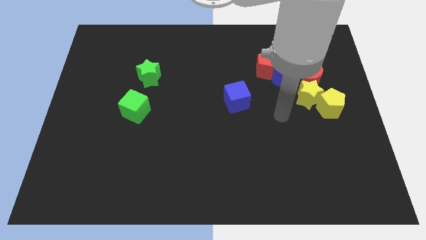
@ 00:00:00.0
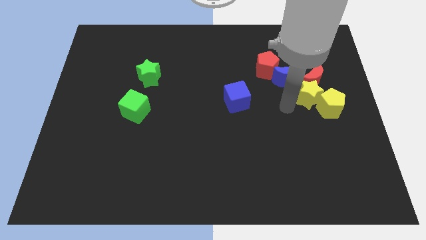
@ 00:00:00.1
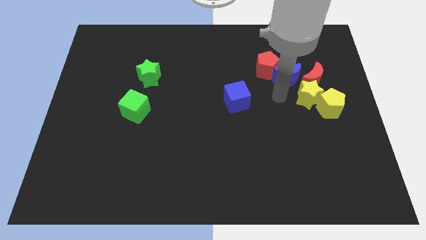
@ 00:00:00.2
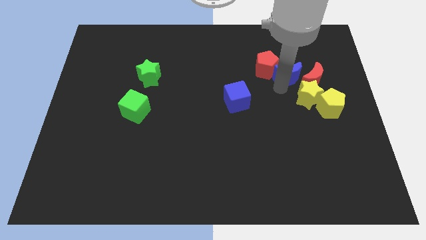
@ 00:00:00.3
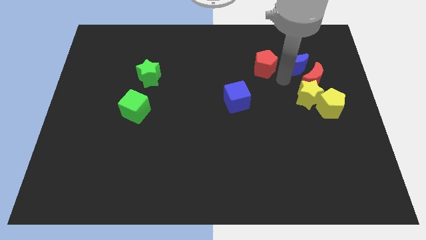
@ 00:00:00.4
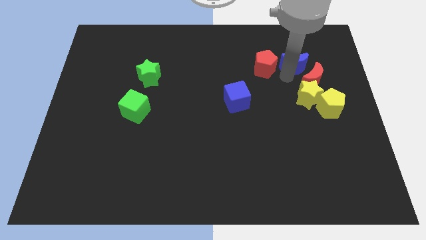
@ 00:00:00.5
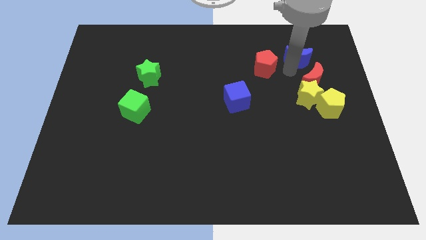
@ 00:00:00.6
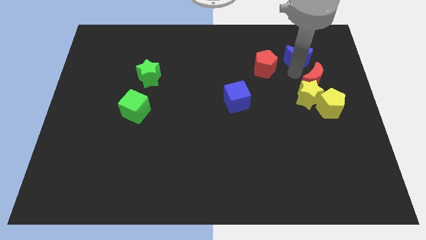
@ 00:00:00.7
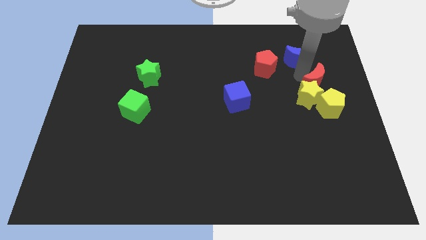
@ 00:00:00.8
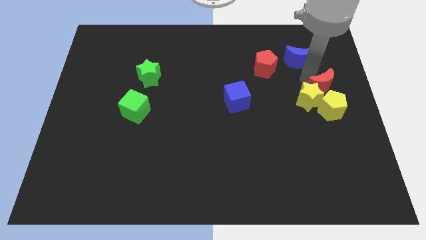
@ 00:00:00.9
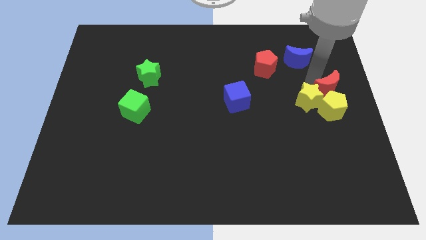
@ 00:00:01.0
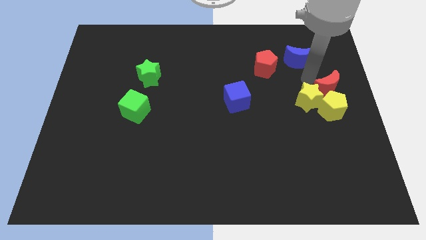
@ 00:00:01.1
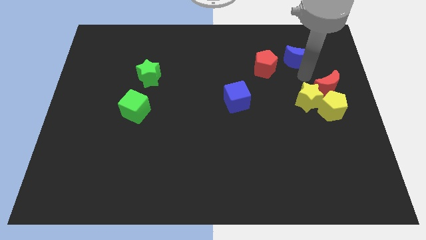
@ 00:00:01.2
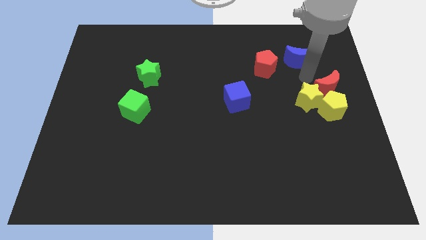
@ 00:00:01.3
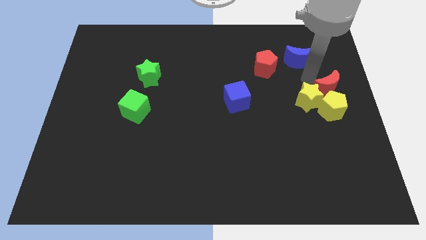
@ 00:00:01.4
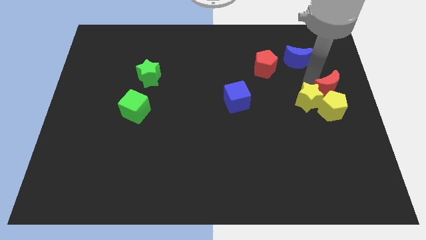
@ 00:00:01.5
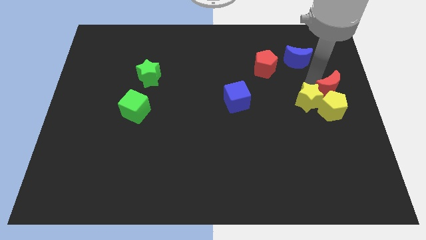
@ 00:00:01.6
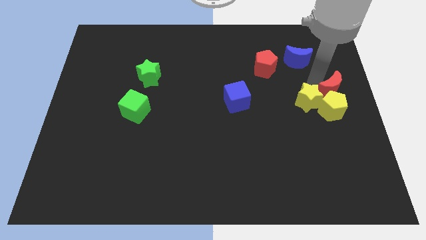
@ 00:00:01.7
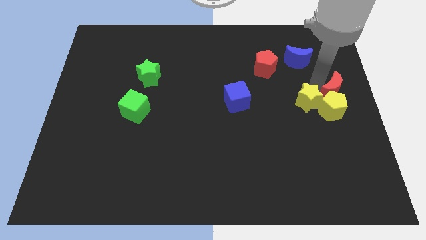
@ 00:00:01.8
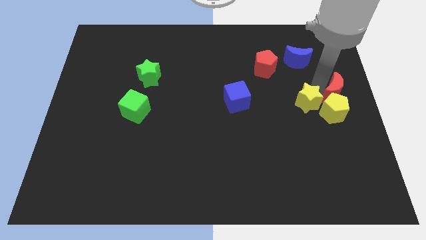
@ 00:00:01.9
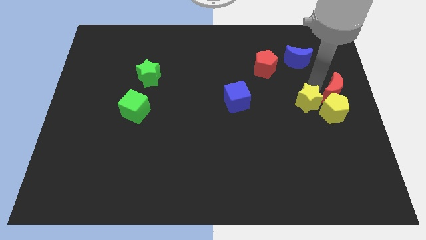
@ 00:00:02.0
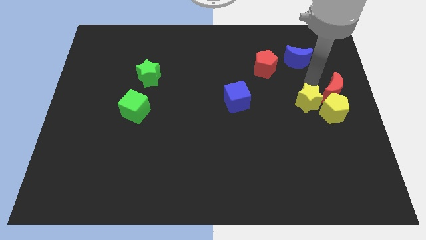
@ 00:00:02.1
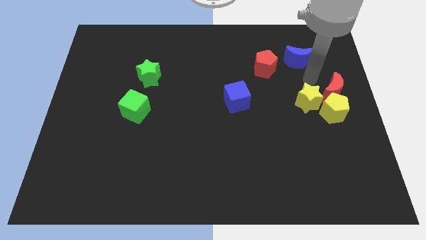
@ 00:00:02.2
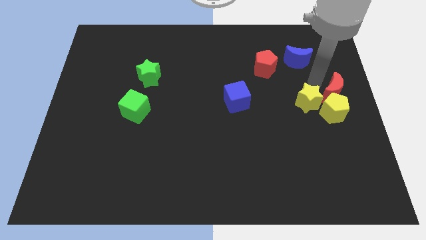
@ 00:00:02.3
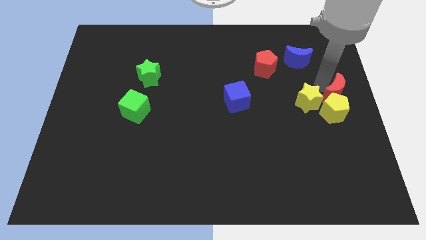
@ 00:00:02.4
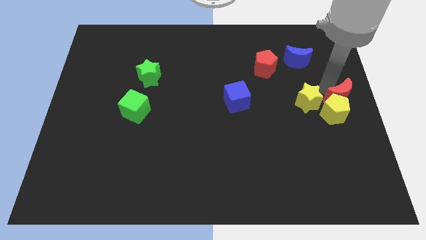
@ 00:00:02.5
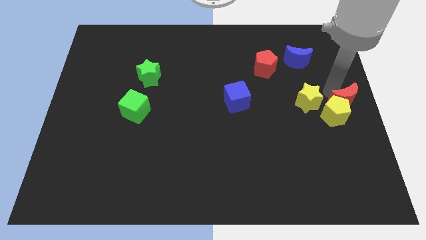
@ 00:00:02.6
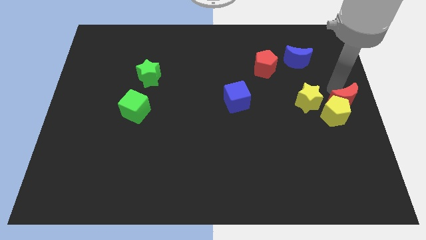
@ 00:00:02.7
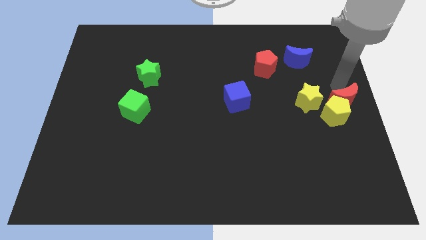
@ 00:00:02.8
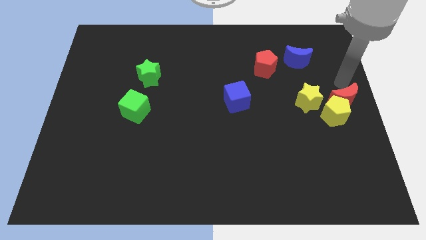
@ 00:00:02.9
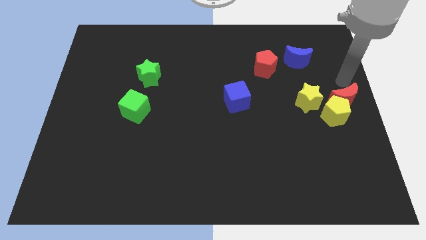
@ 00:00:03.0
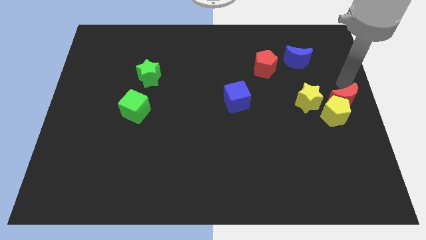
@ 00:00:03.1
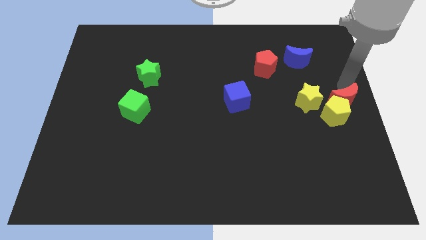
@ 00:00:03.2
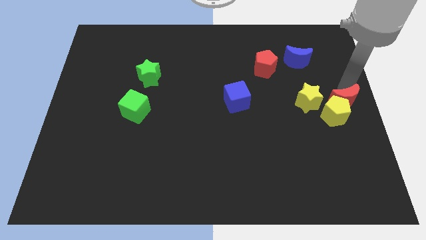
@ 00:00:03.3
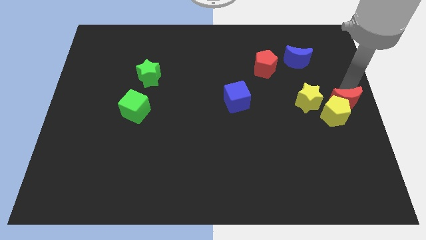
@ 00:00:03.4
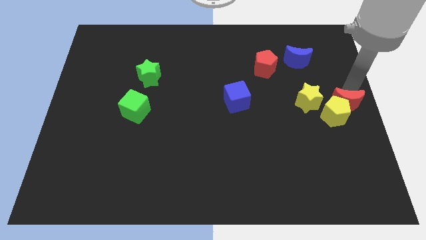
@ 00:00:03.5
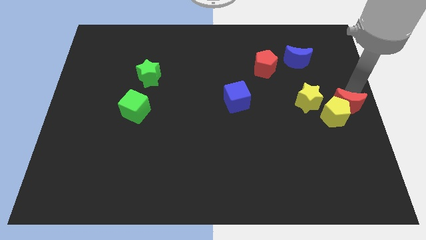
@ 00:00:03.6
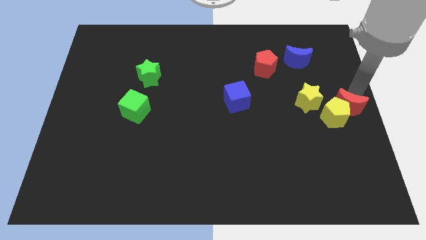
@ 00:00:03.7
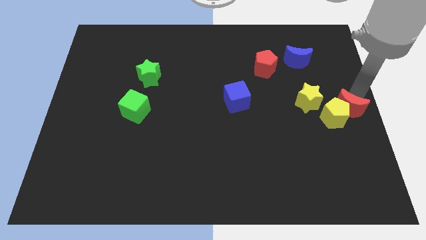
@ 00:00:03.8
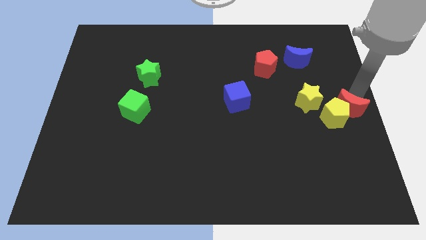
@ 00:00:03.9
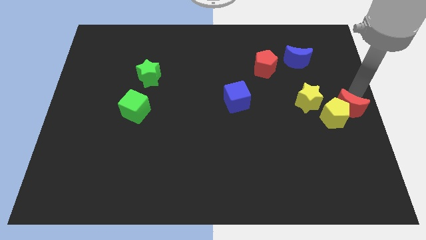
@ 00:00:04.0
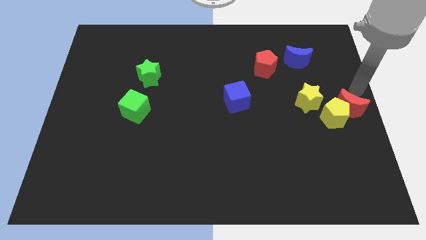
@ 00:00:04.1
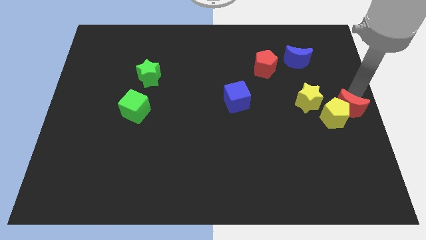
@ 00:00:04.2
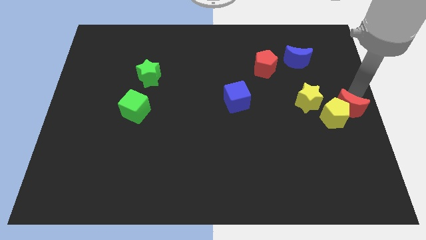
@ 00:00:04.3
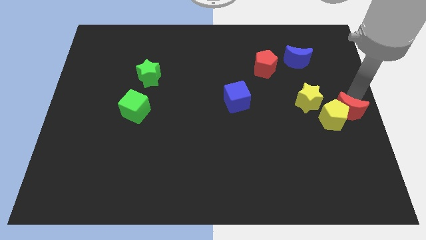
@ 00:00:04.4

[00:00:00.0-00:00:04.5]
slightly move the red moon down

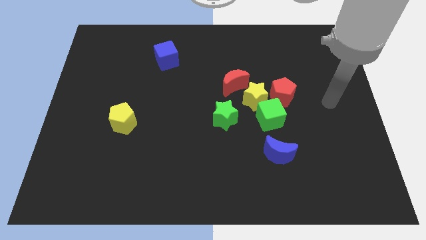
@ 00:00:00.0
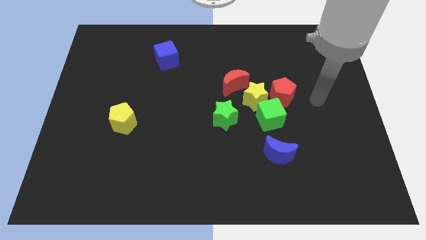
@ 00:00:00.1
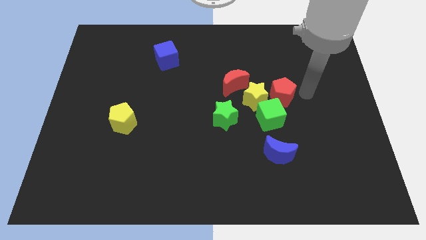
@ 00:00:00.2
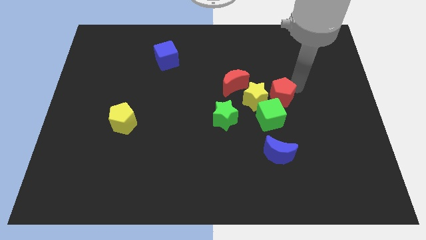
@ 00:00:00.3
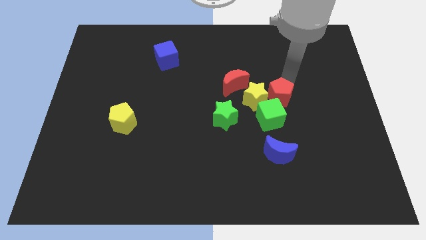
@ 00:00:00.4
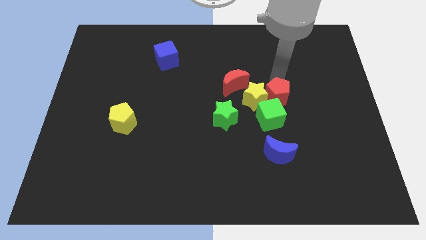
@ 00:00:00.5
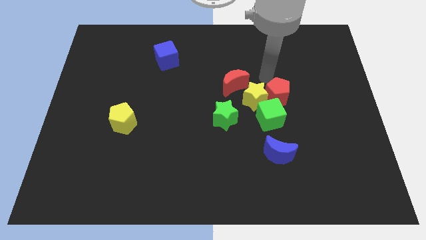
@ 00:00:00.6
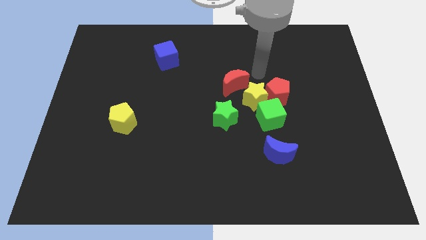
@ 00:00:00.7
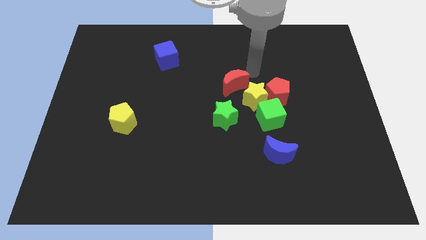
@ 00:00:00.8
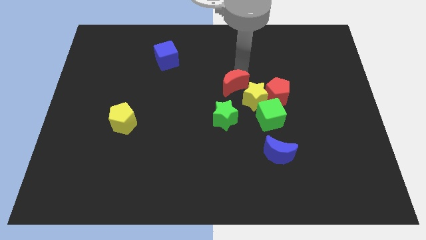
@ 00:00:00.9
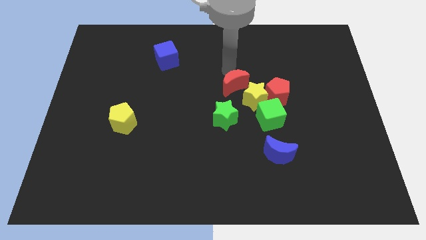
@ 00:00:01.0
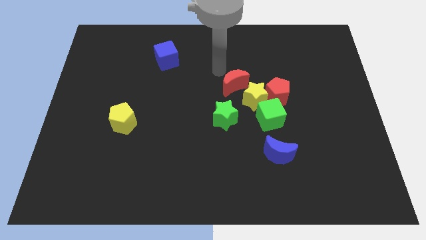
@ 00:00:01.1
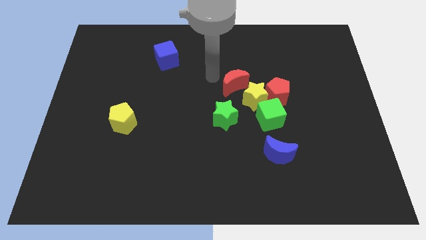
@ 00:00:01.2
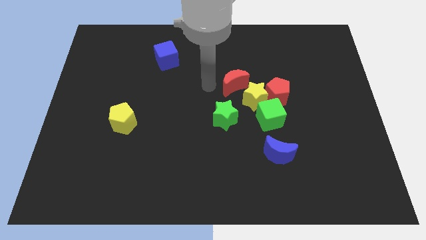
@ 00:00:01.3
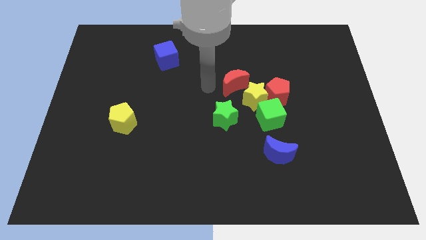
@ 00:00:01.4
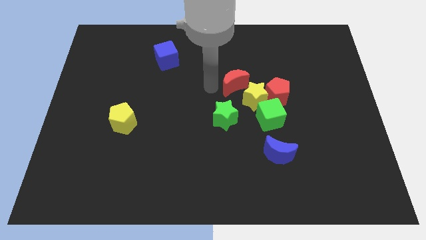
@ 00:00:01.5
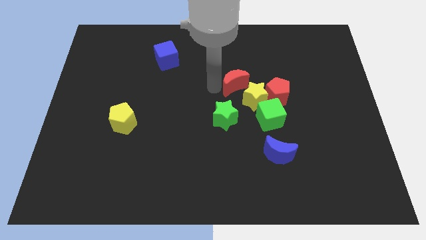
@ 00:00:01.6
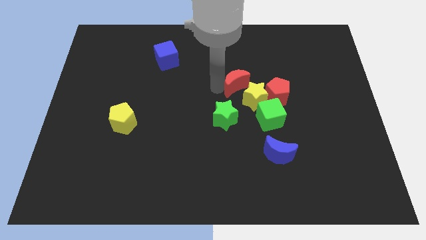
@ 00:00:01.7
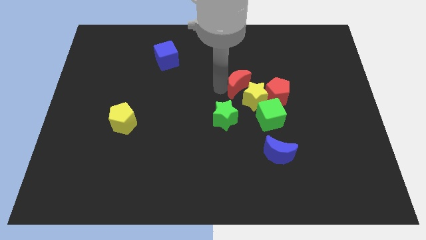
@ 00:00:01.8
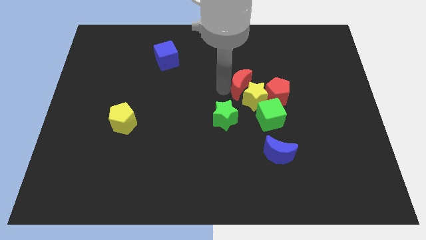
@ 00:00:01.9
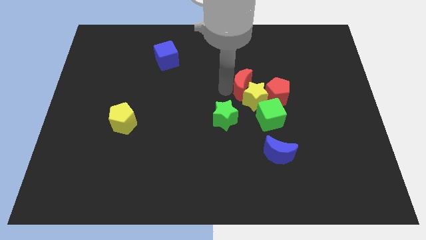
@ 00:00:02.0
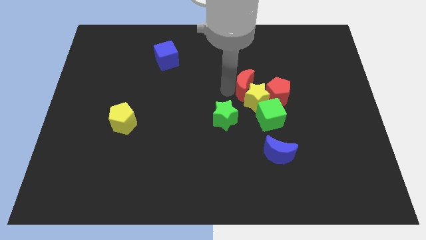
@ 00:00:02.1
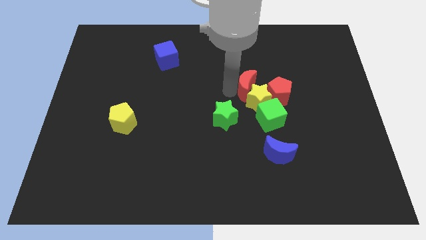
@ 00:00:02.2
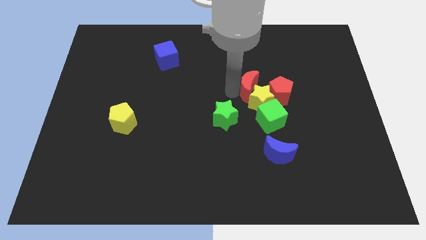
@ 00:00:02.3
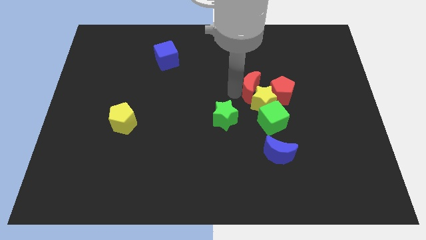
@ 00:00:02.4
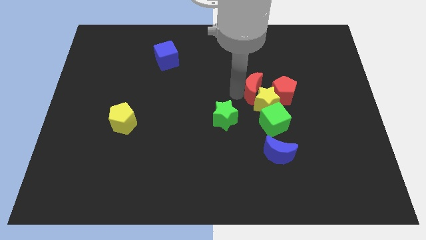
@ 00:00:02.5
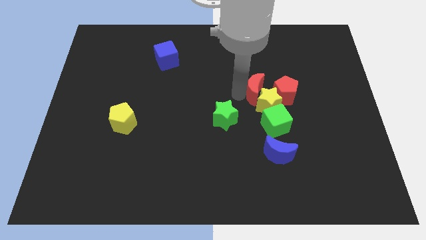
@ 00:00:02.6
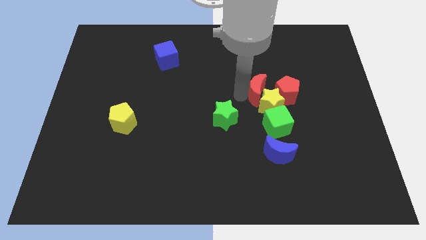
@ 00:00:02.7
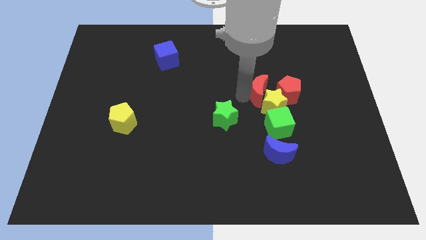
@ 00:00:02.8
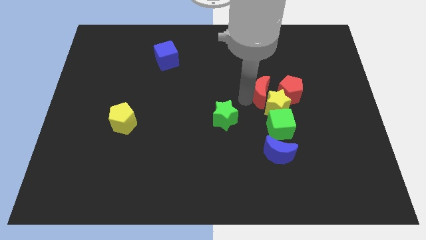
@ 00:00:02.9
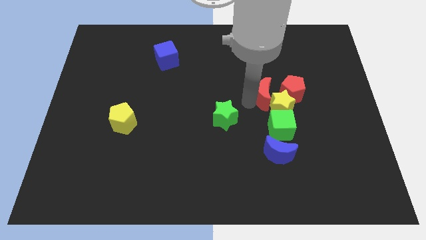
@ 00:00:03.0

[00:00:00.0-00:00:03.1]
slide the red moon down and then to the right a little

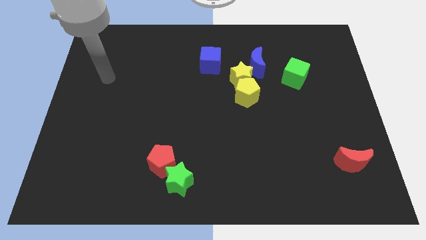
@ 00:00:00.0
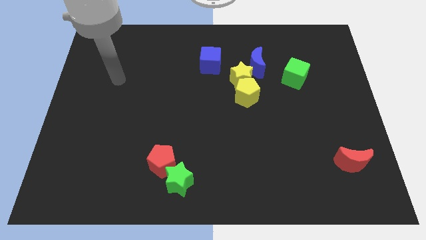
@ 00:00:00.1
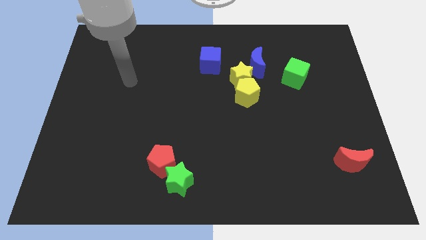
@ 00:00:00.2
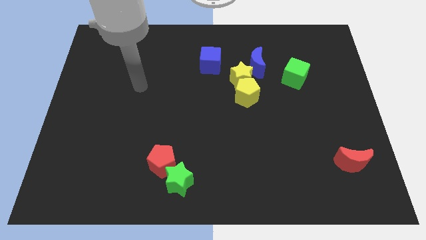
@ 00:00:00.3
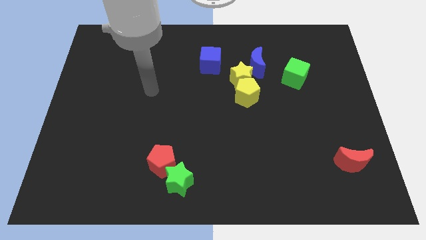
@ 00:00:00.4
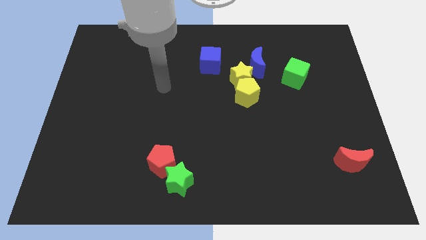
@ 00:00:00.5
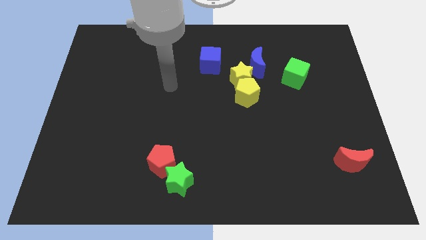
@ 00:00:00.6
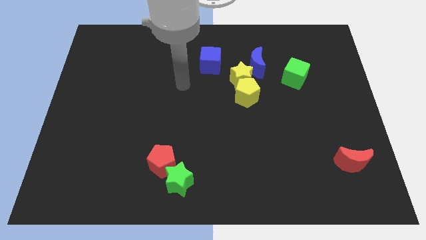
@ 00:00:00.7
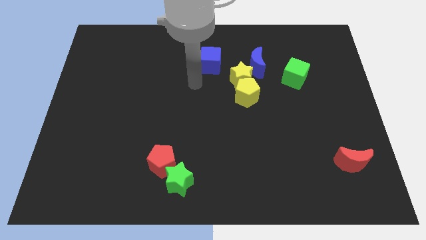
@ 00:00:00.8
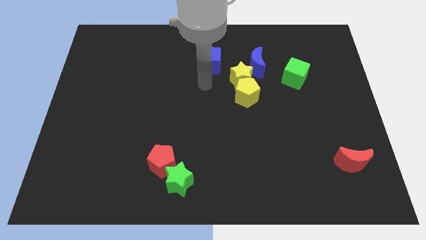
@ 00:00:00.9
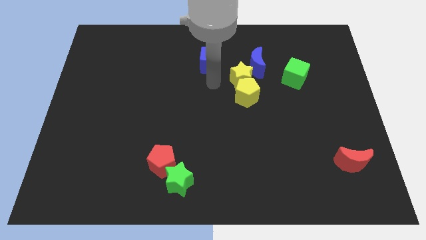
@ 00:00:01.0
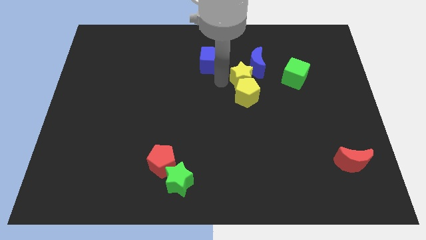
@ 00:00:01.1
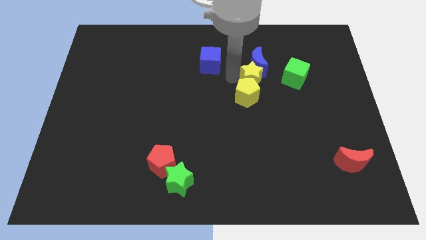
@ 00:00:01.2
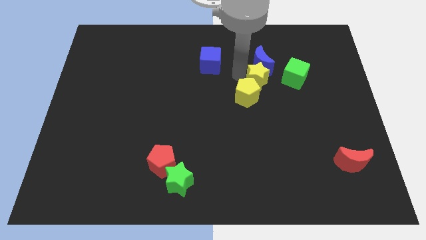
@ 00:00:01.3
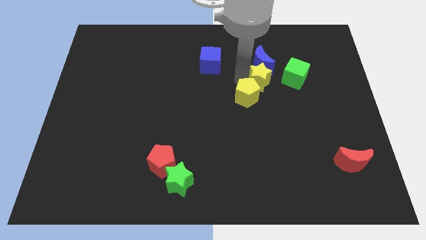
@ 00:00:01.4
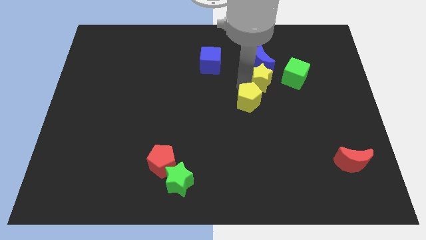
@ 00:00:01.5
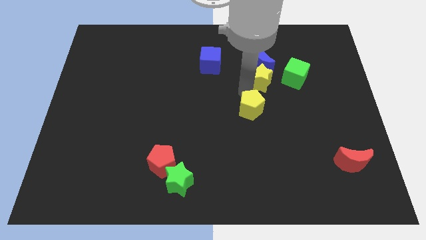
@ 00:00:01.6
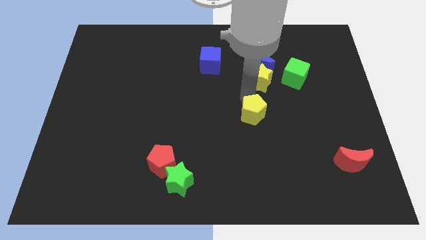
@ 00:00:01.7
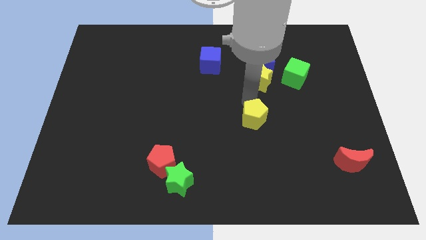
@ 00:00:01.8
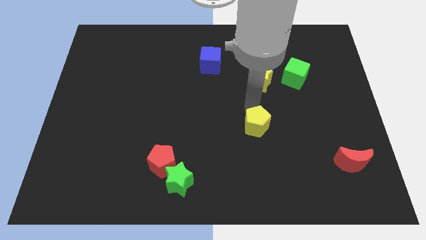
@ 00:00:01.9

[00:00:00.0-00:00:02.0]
slightly slide the yellow pentagon down
